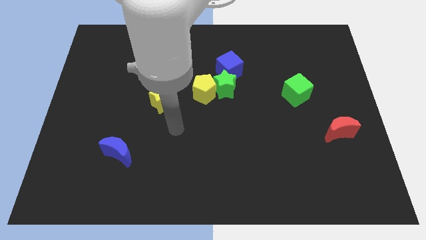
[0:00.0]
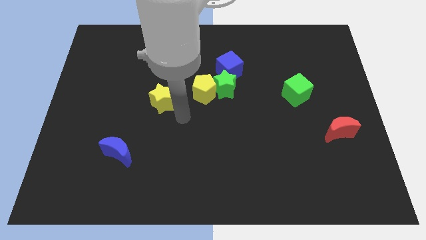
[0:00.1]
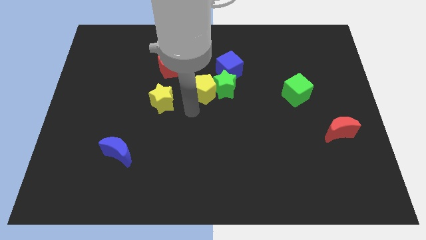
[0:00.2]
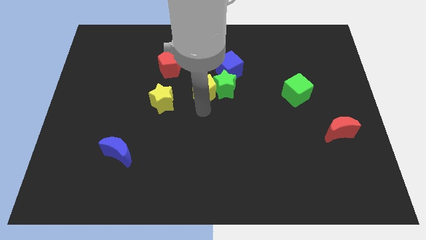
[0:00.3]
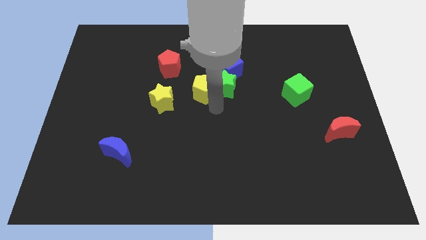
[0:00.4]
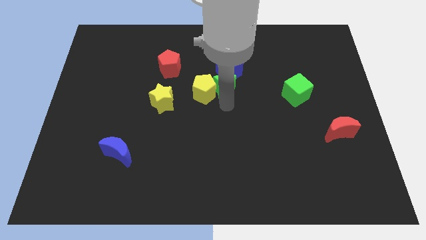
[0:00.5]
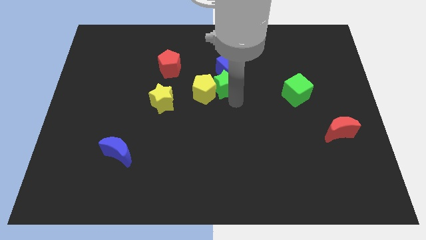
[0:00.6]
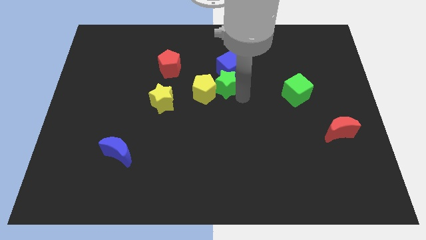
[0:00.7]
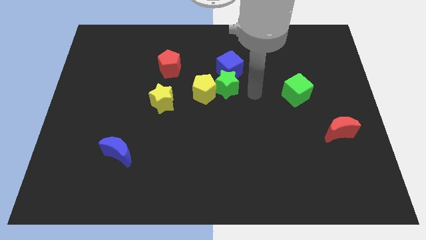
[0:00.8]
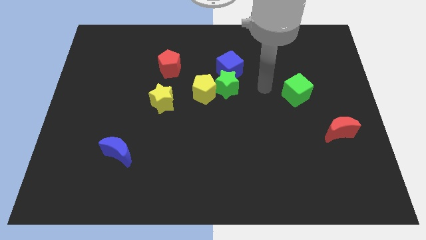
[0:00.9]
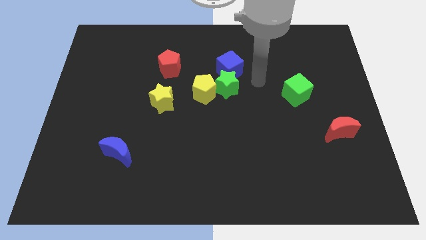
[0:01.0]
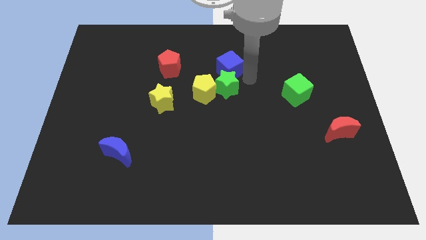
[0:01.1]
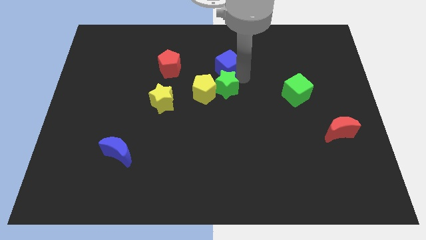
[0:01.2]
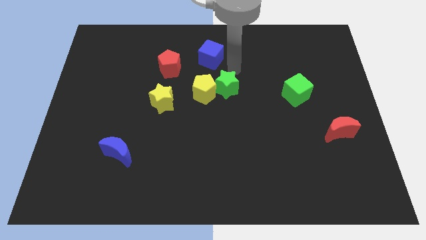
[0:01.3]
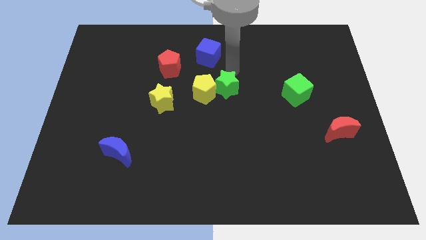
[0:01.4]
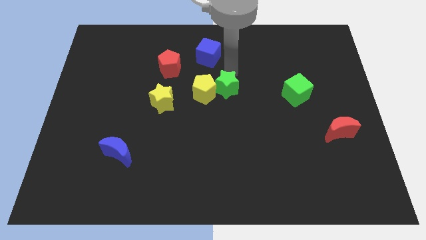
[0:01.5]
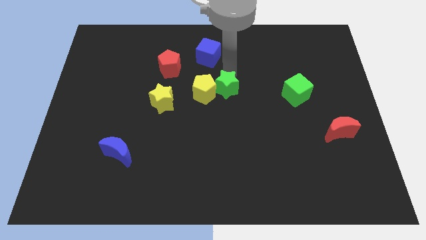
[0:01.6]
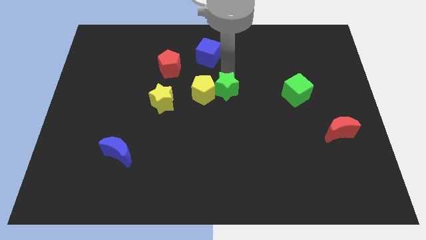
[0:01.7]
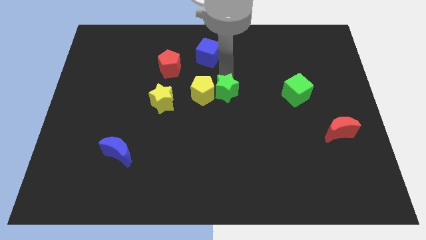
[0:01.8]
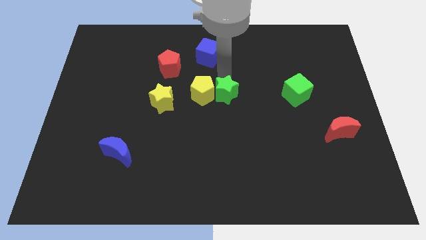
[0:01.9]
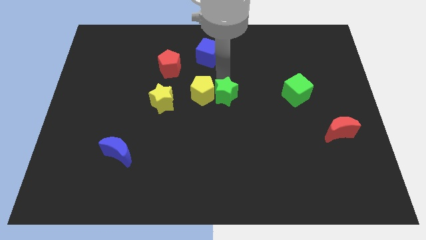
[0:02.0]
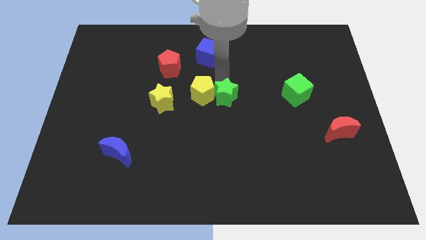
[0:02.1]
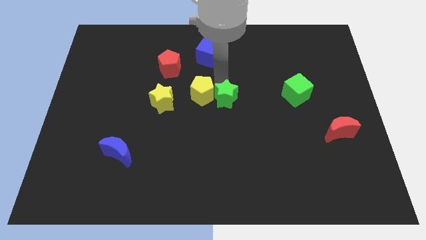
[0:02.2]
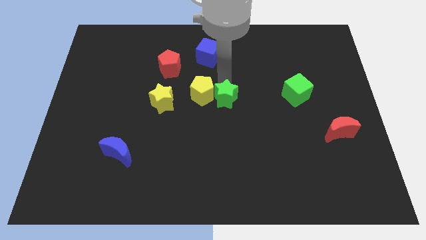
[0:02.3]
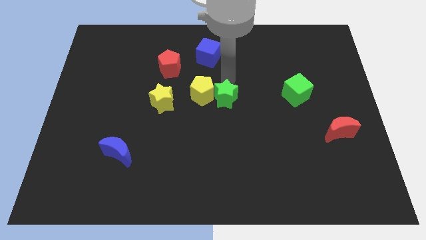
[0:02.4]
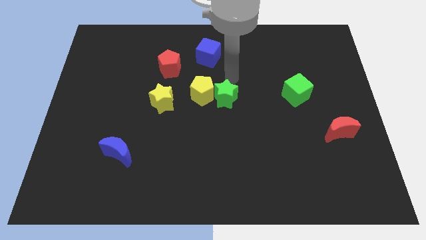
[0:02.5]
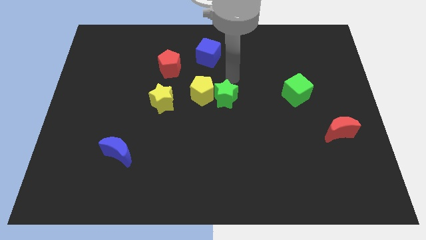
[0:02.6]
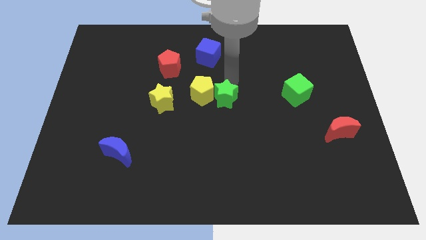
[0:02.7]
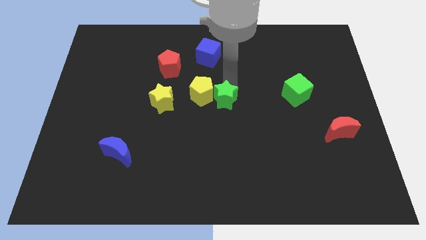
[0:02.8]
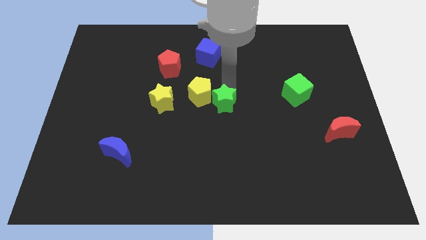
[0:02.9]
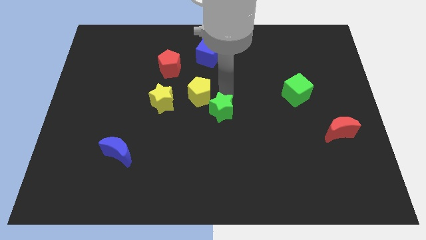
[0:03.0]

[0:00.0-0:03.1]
slightly push the green star downwards

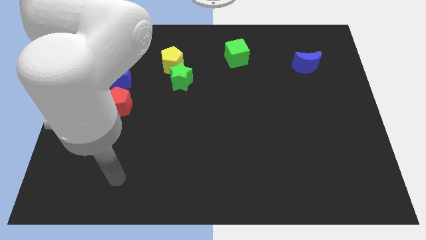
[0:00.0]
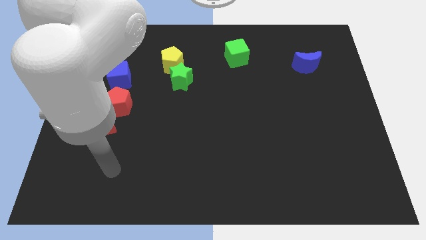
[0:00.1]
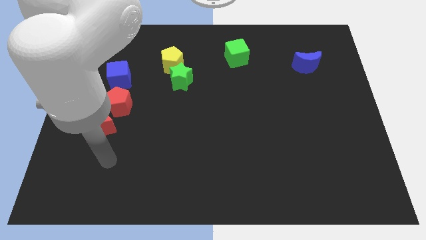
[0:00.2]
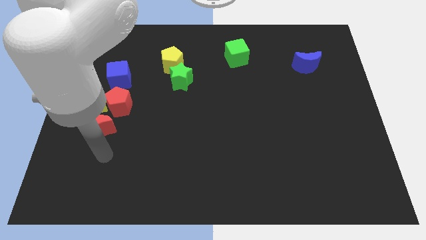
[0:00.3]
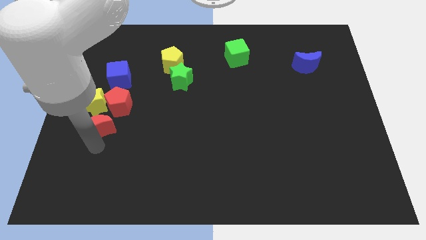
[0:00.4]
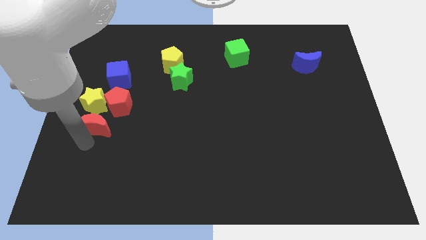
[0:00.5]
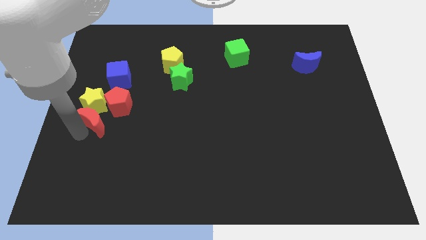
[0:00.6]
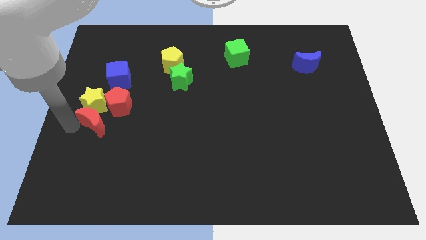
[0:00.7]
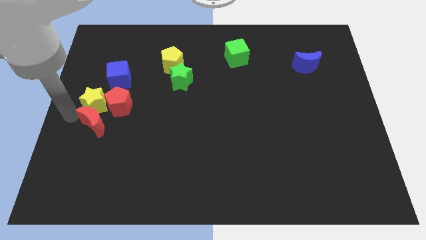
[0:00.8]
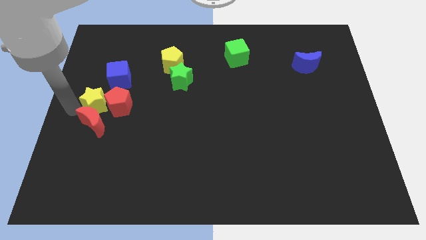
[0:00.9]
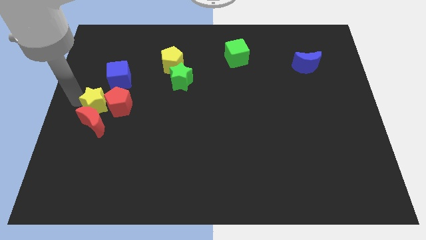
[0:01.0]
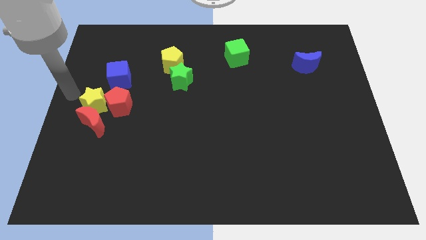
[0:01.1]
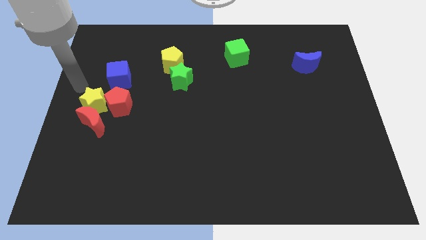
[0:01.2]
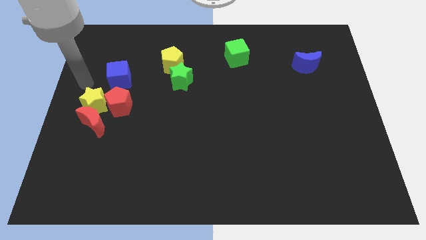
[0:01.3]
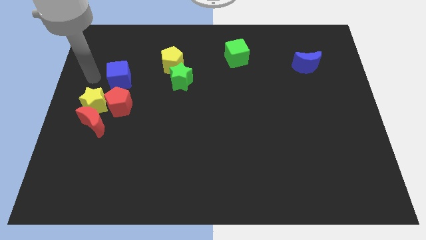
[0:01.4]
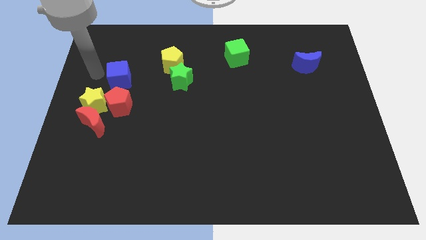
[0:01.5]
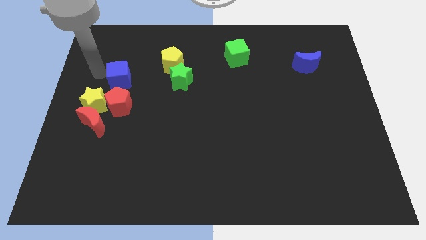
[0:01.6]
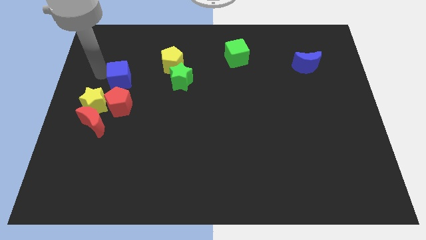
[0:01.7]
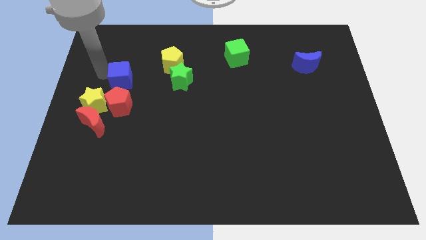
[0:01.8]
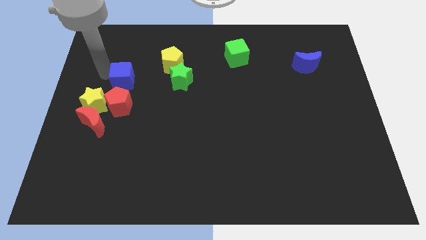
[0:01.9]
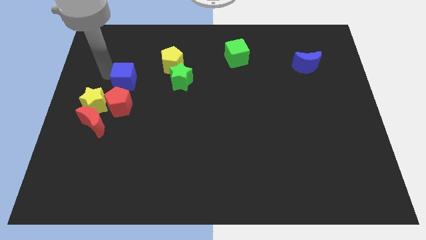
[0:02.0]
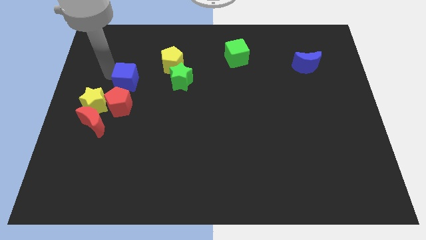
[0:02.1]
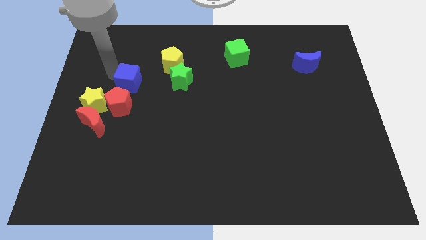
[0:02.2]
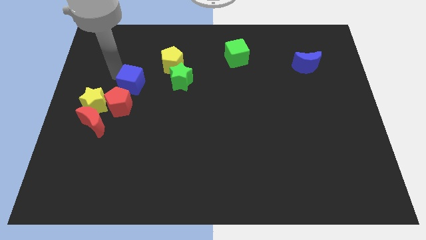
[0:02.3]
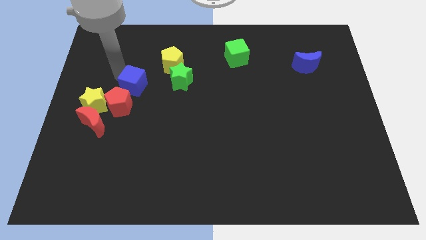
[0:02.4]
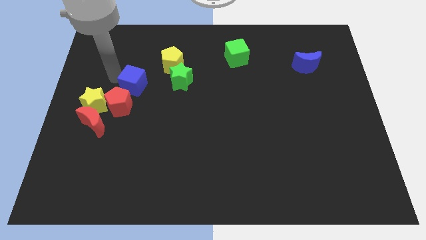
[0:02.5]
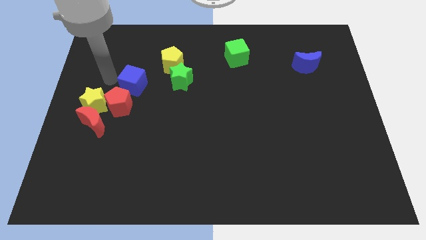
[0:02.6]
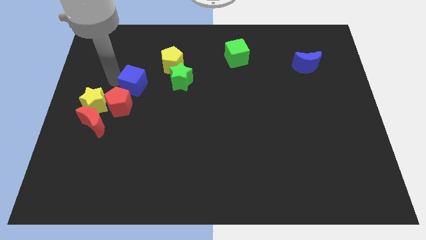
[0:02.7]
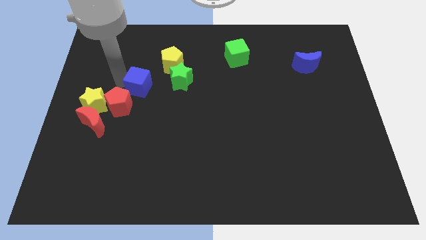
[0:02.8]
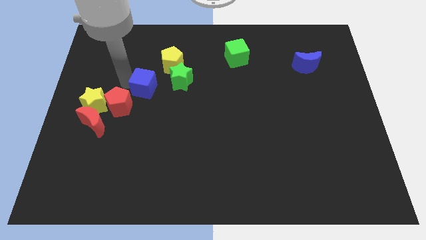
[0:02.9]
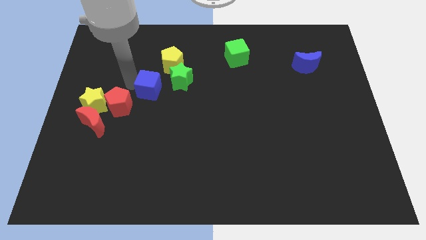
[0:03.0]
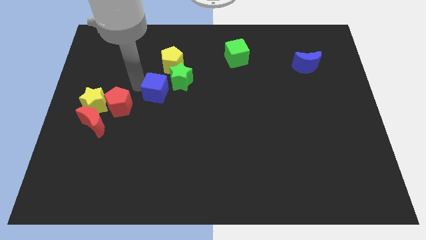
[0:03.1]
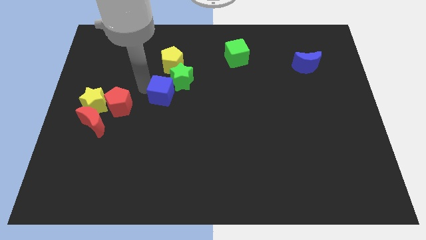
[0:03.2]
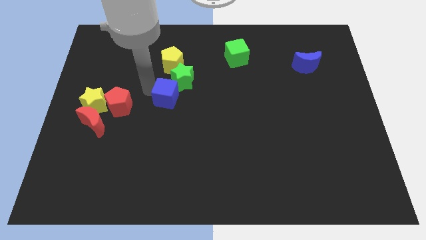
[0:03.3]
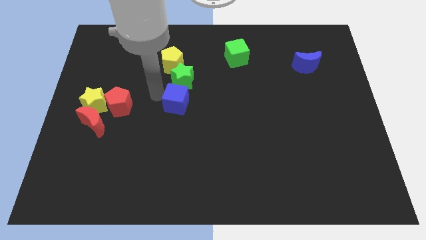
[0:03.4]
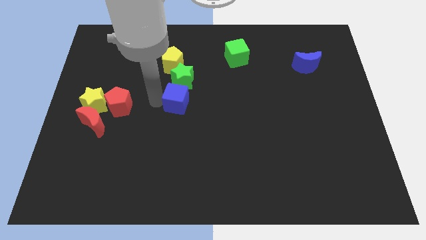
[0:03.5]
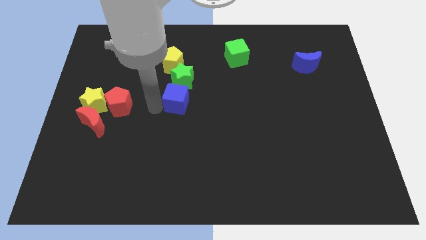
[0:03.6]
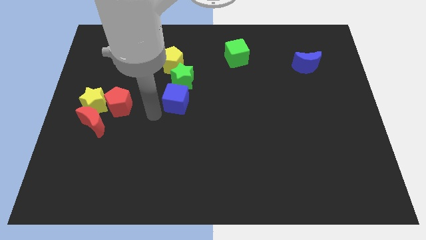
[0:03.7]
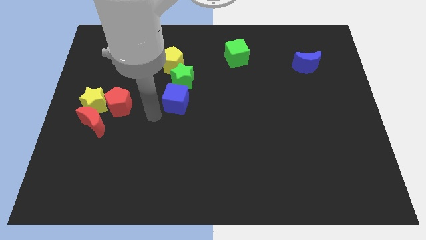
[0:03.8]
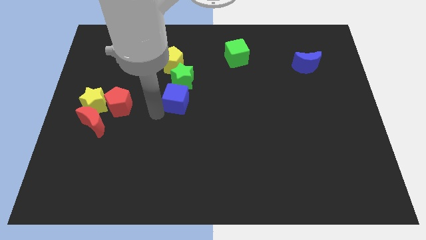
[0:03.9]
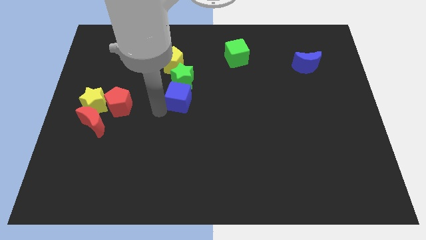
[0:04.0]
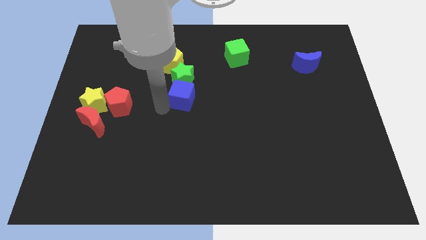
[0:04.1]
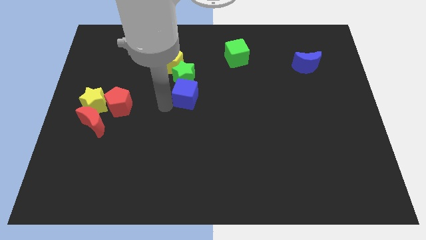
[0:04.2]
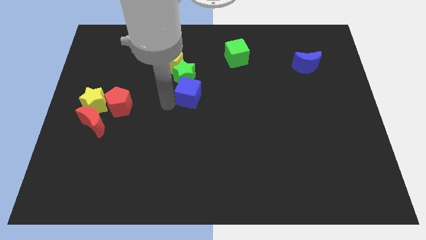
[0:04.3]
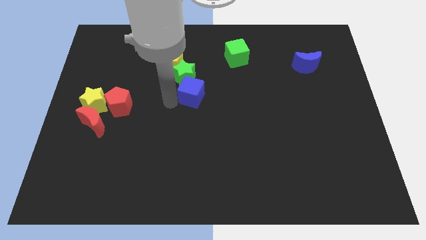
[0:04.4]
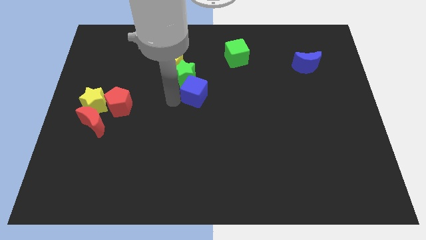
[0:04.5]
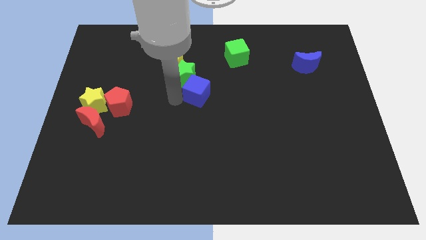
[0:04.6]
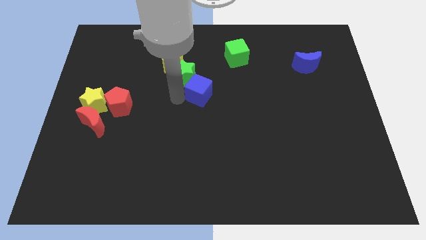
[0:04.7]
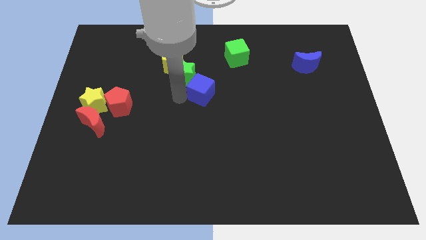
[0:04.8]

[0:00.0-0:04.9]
push the blue cube to the right
